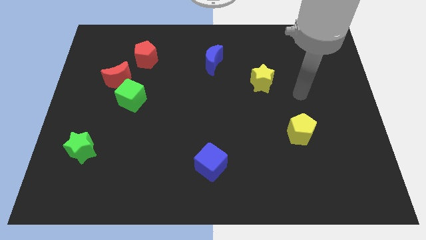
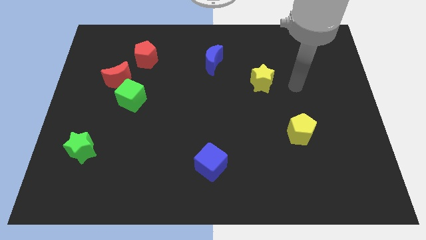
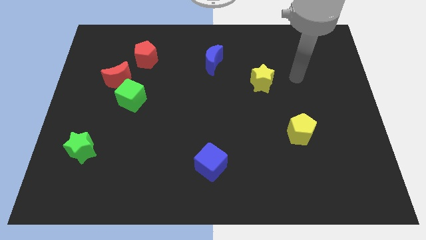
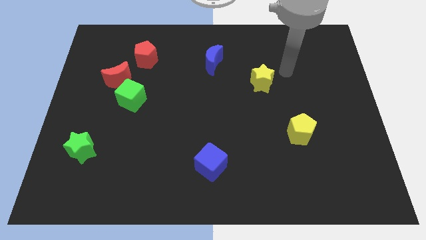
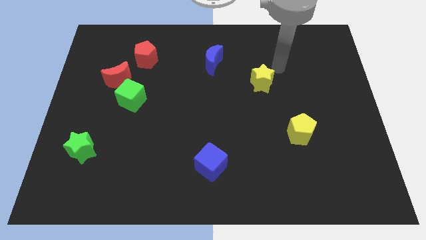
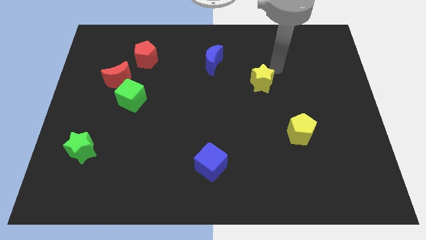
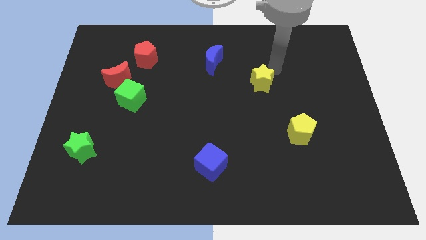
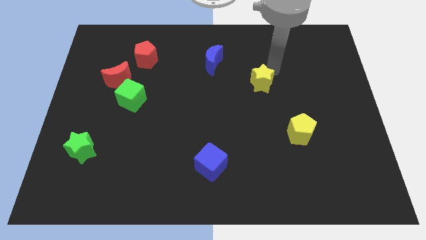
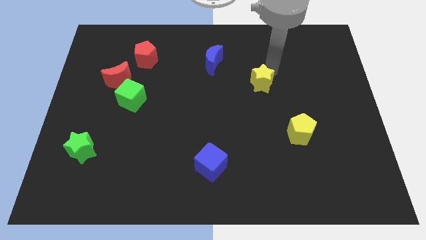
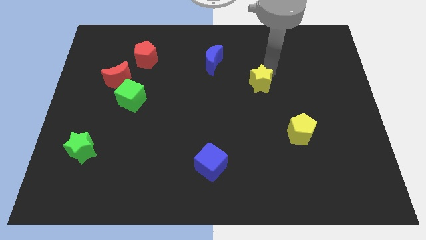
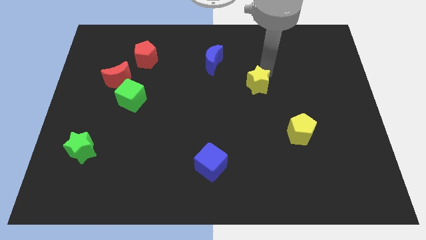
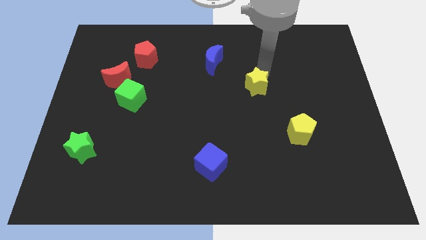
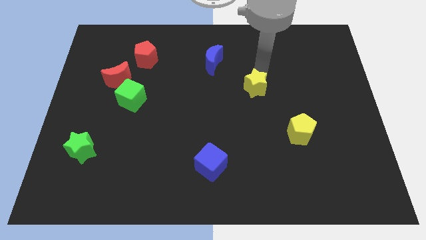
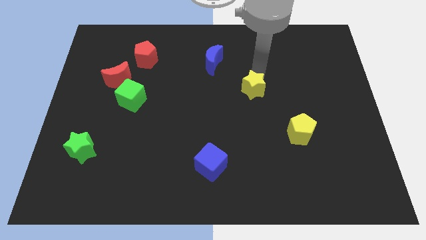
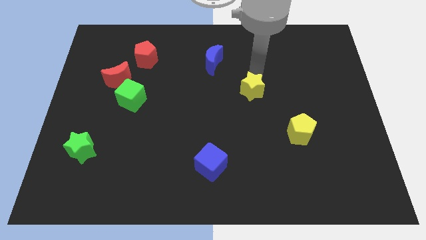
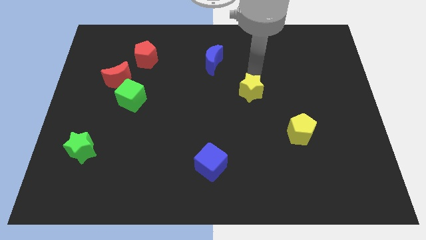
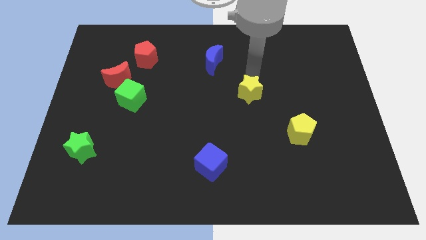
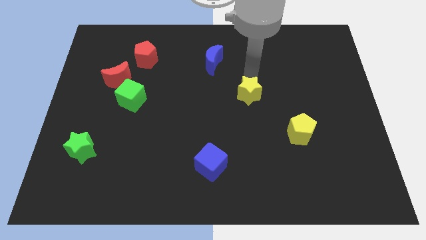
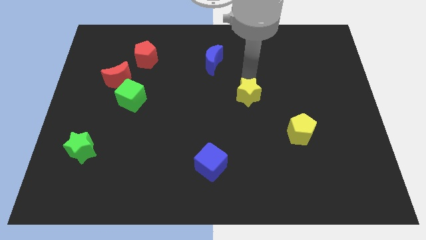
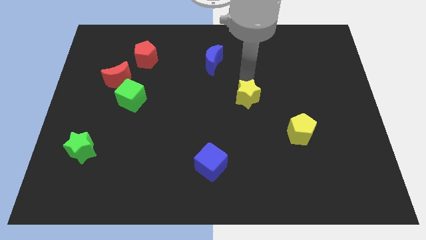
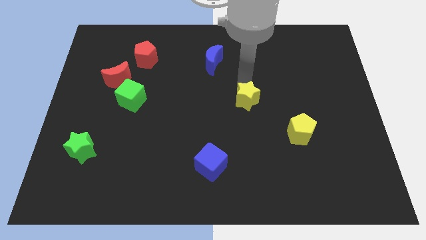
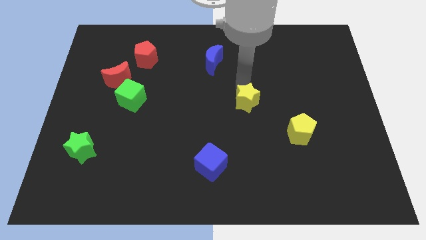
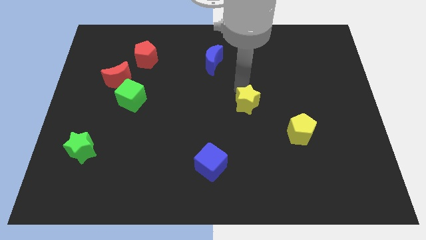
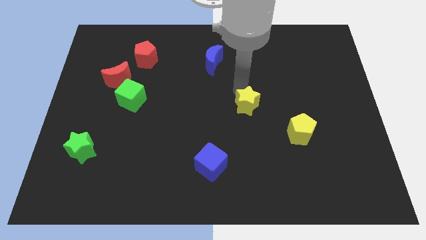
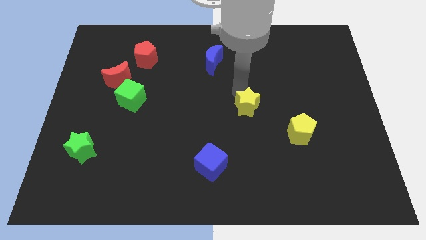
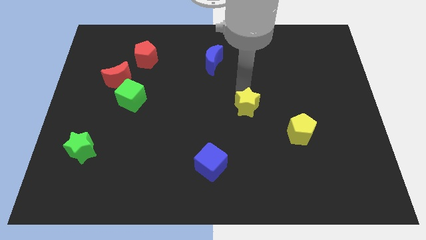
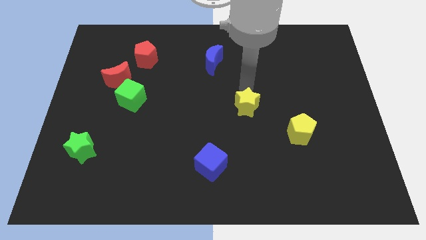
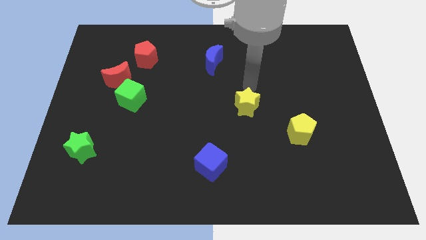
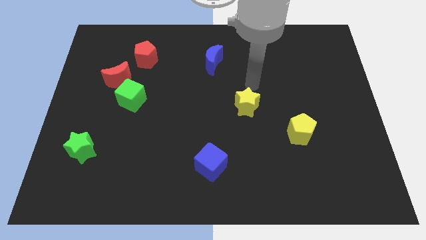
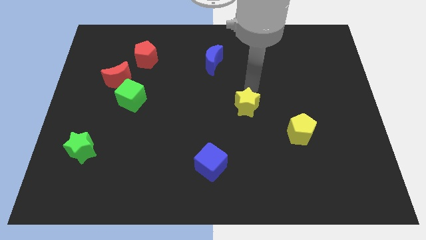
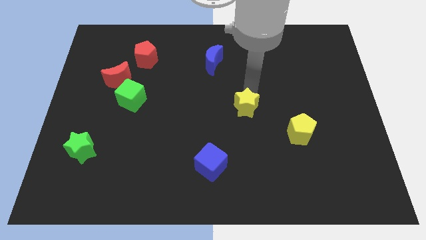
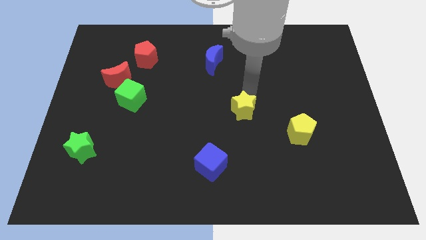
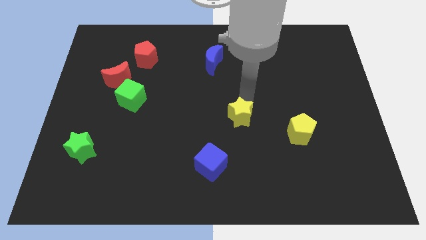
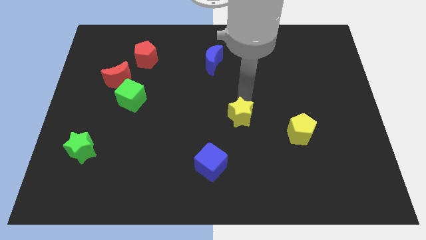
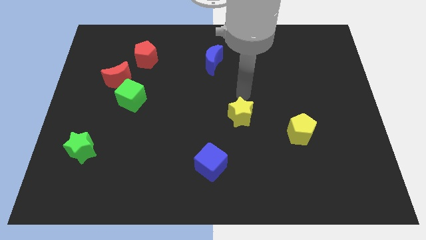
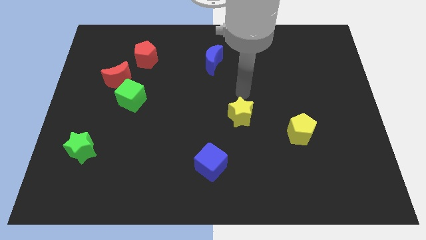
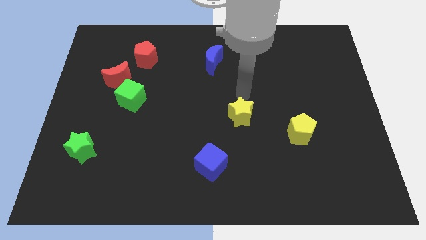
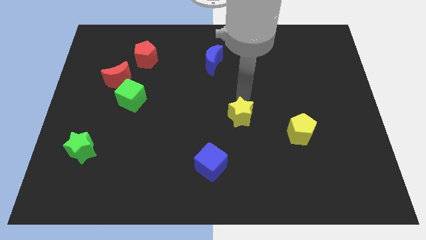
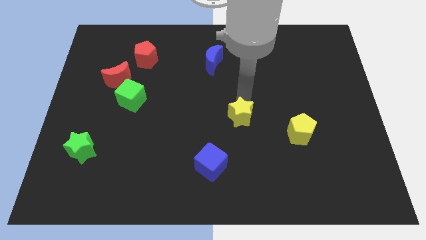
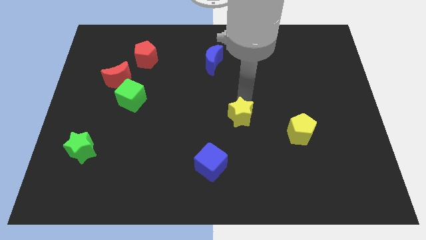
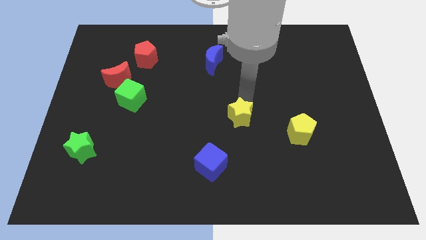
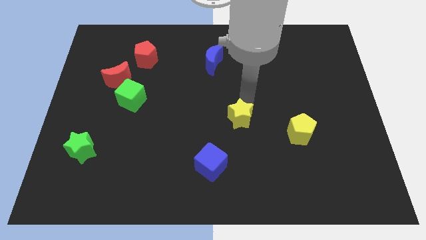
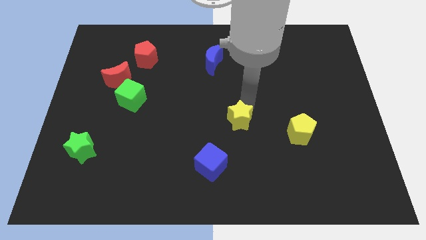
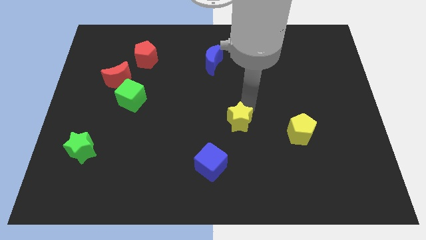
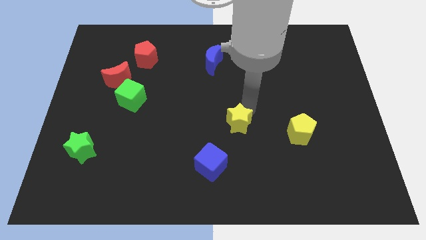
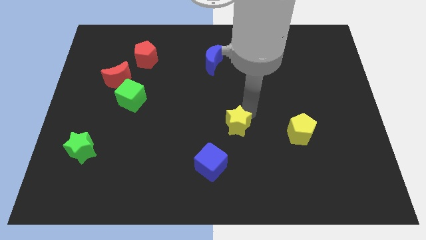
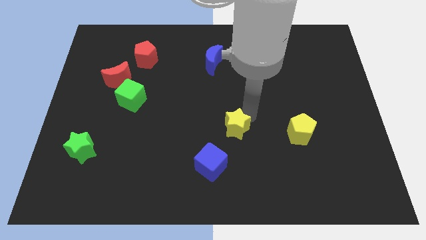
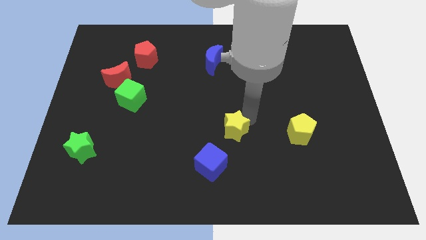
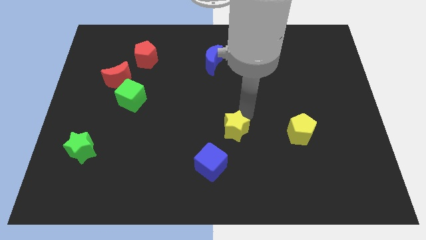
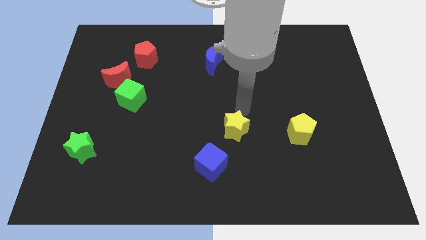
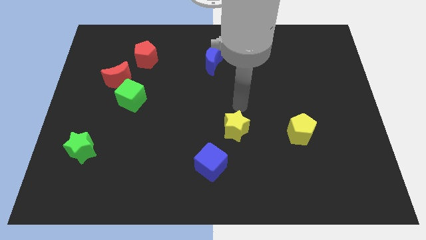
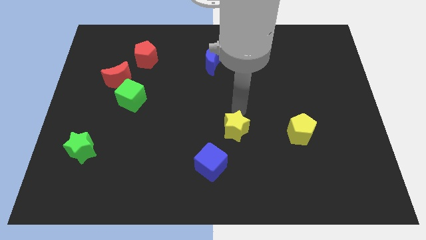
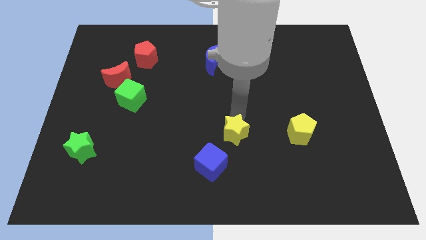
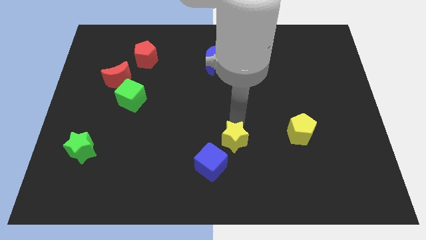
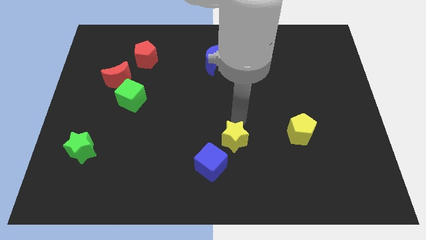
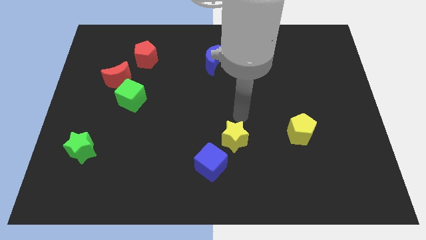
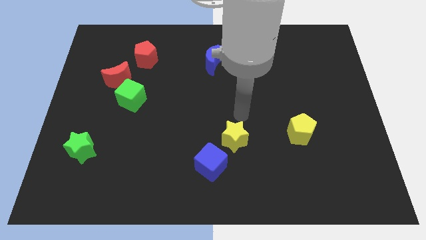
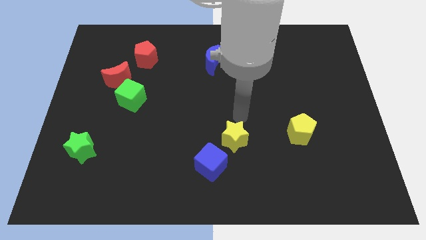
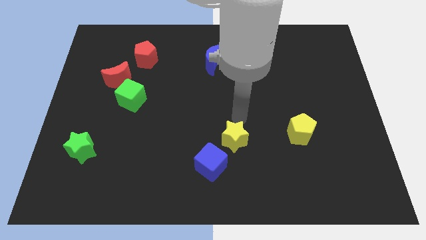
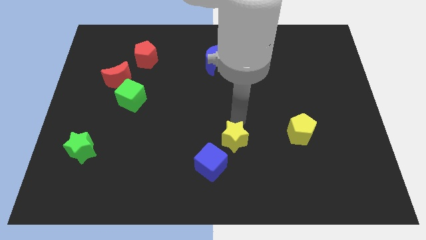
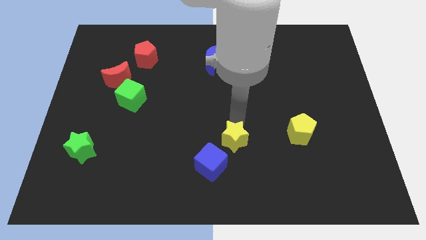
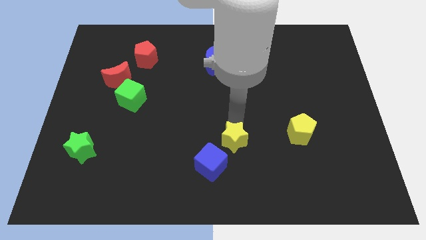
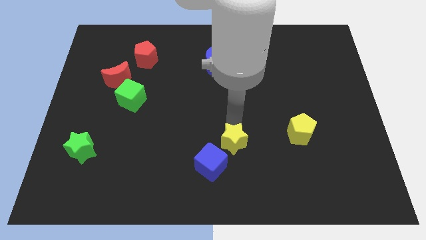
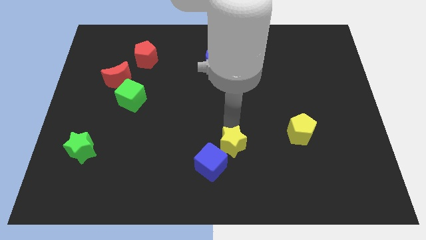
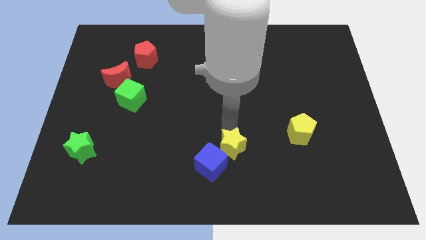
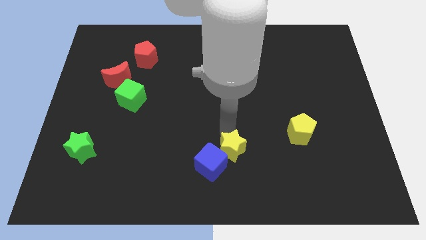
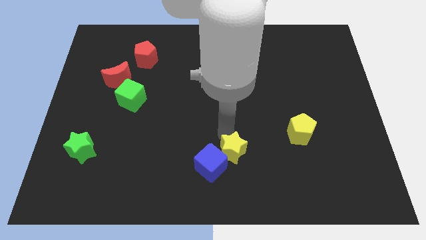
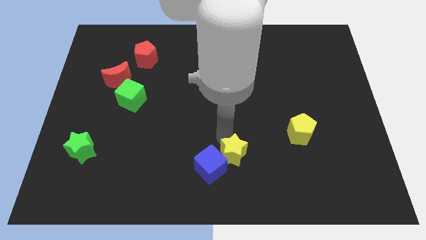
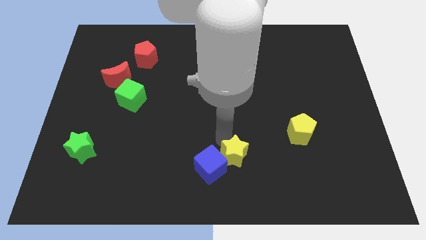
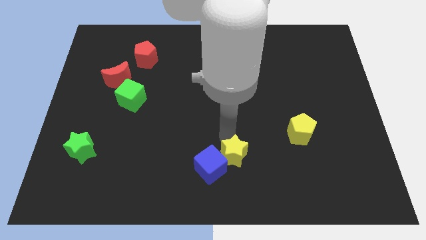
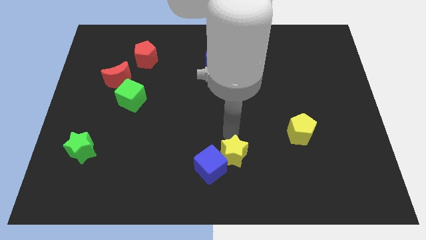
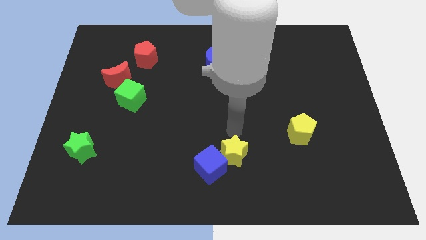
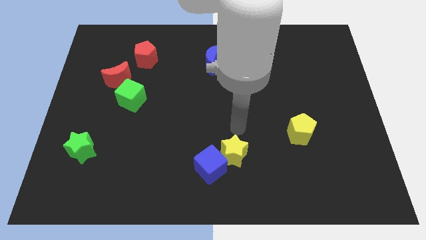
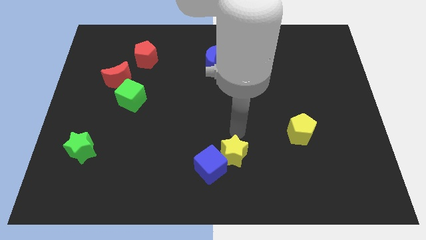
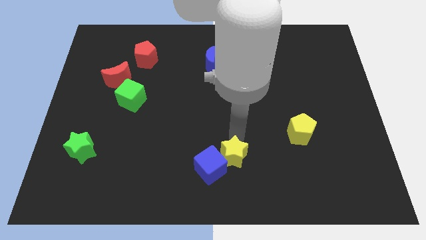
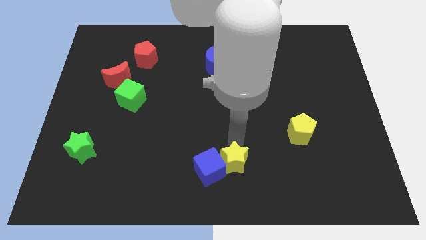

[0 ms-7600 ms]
slide the yellow star to the bottom
